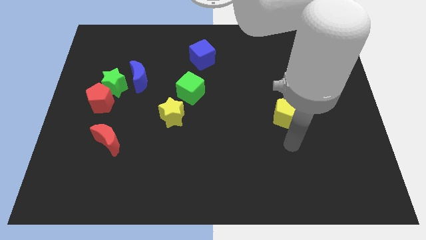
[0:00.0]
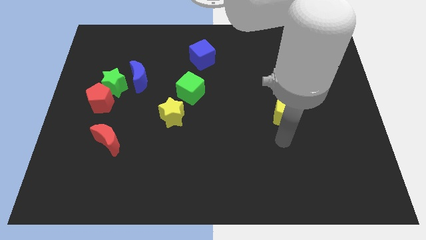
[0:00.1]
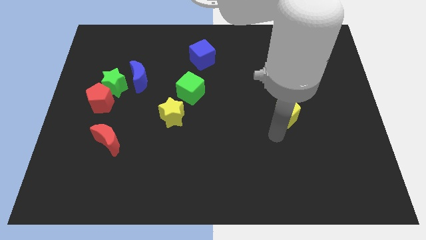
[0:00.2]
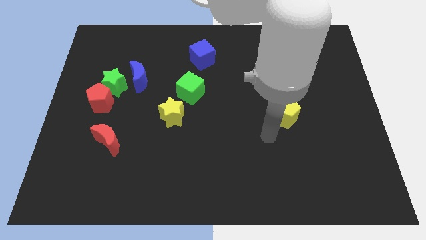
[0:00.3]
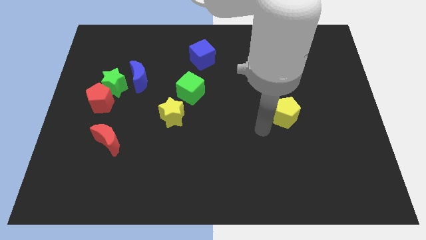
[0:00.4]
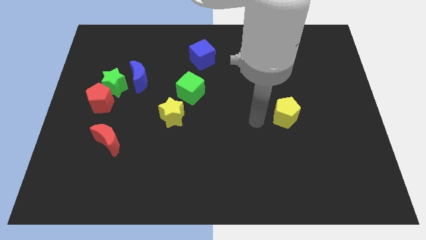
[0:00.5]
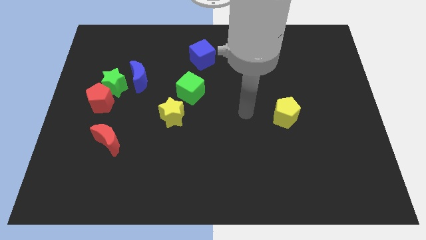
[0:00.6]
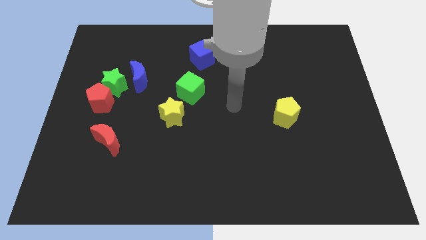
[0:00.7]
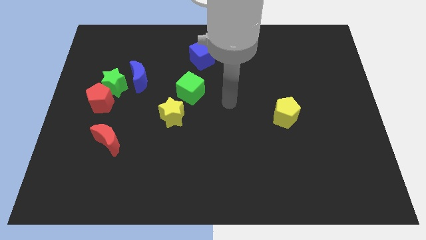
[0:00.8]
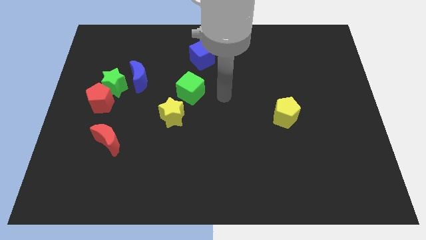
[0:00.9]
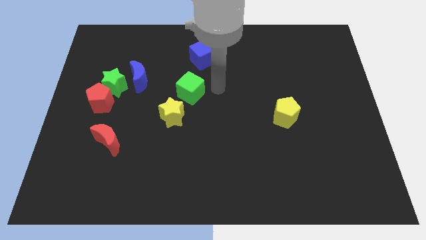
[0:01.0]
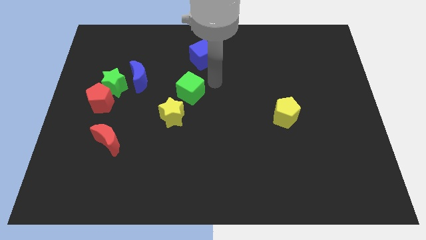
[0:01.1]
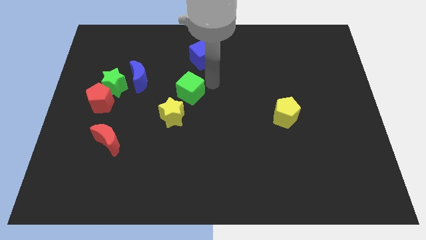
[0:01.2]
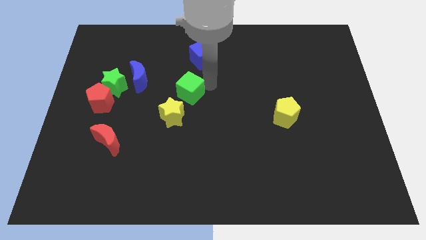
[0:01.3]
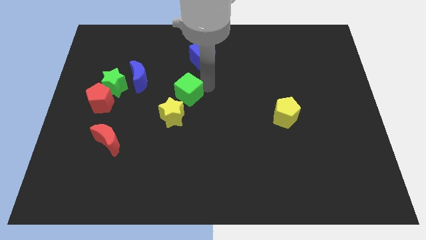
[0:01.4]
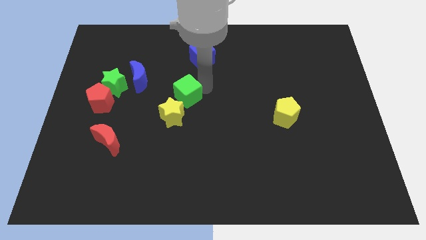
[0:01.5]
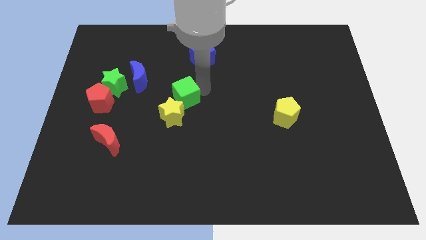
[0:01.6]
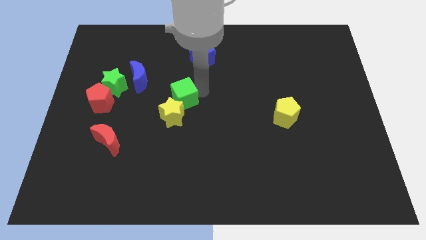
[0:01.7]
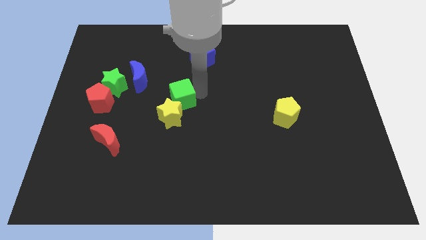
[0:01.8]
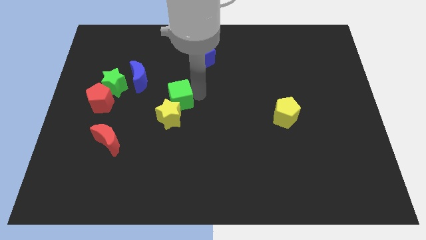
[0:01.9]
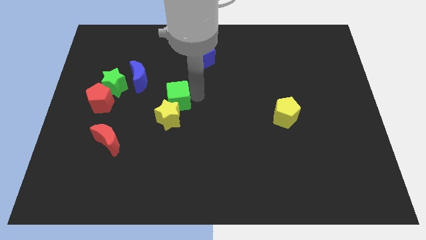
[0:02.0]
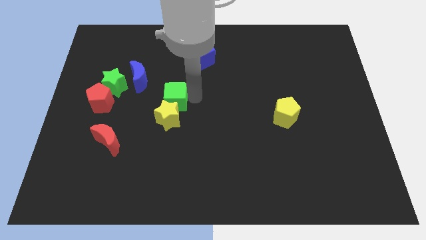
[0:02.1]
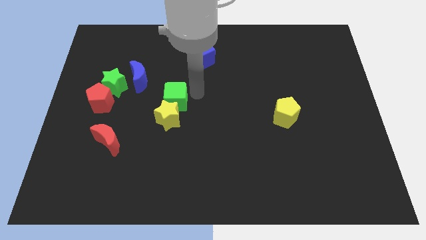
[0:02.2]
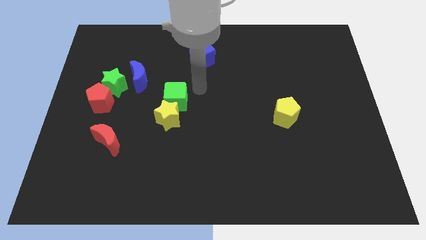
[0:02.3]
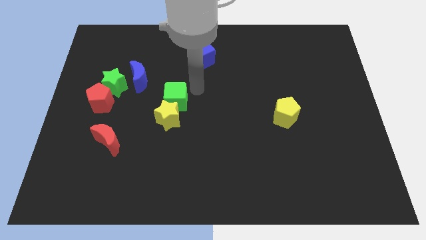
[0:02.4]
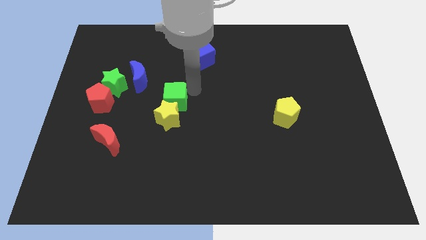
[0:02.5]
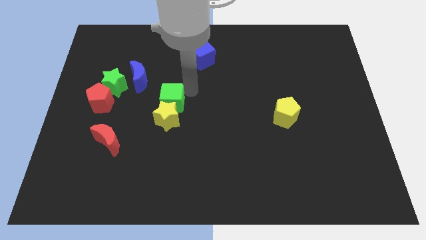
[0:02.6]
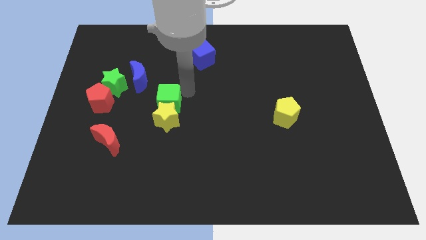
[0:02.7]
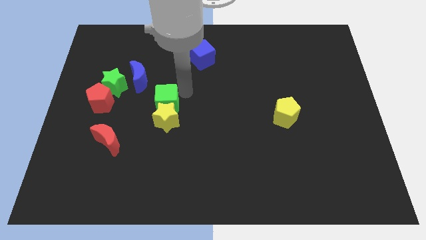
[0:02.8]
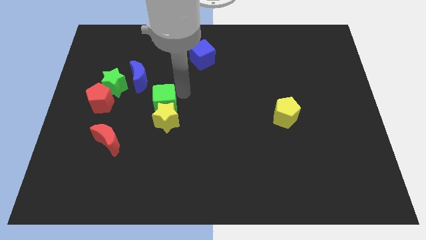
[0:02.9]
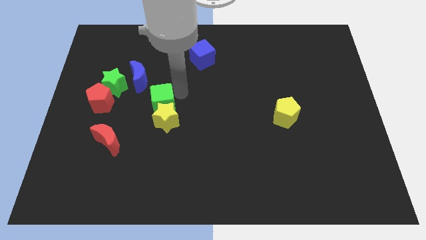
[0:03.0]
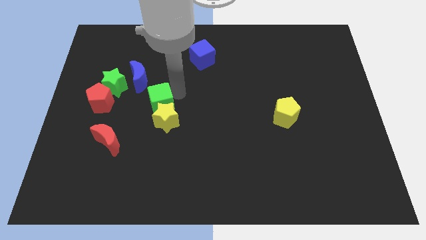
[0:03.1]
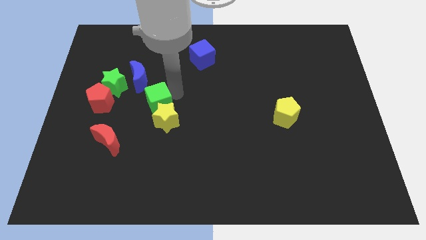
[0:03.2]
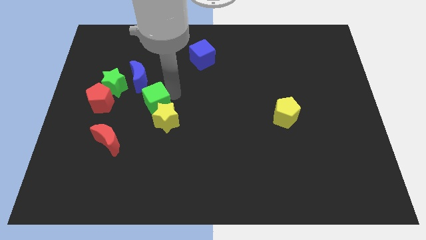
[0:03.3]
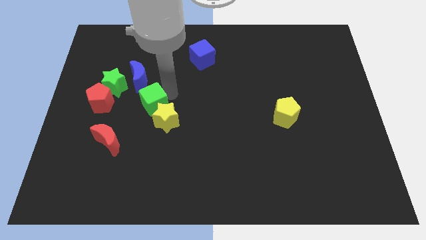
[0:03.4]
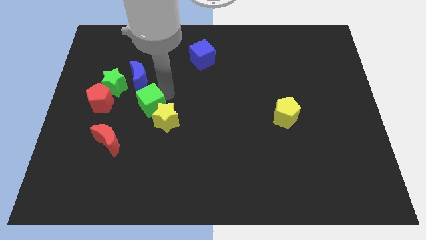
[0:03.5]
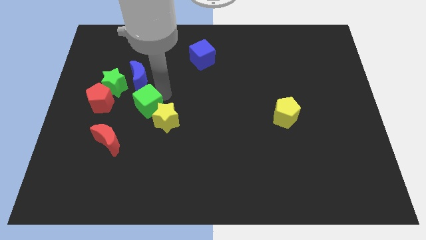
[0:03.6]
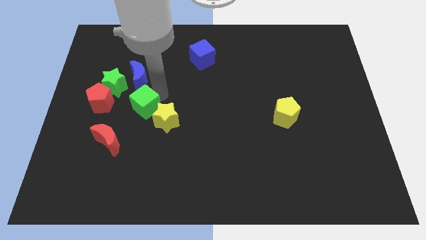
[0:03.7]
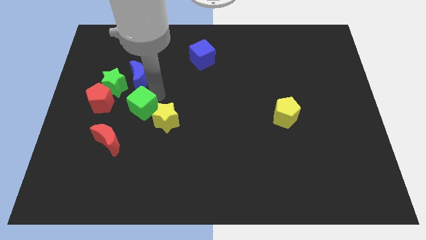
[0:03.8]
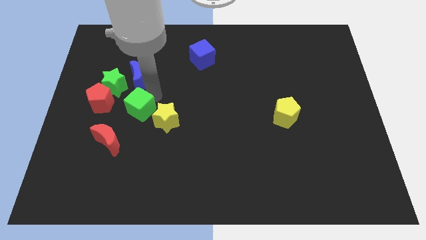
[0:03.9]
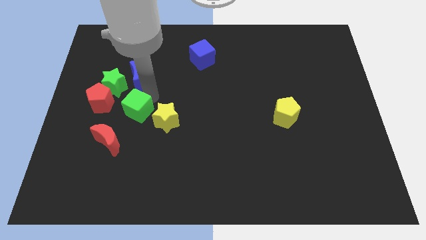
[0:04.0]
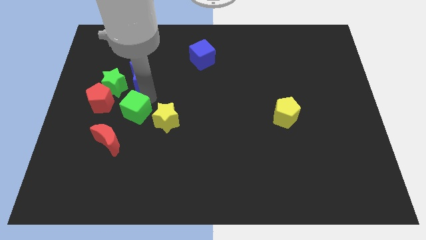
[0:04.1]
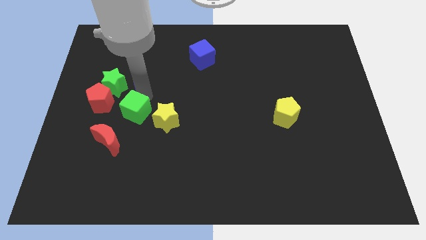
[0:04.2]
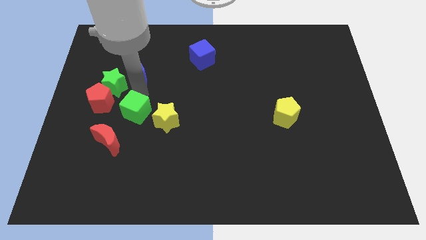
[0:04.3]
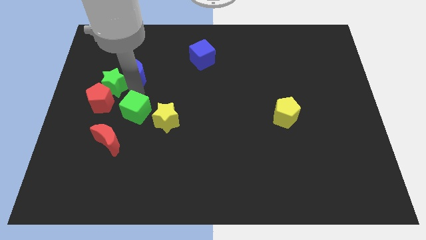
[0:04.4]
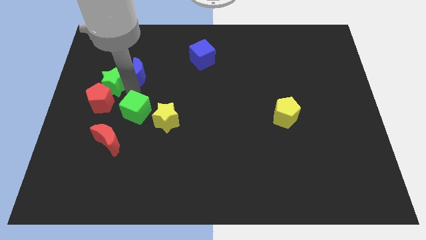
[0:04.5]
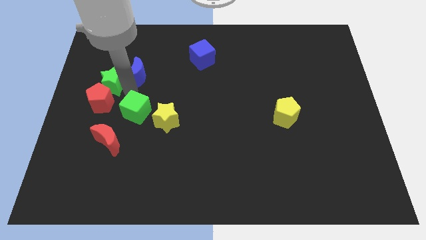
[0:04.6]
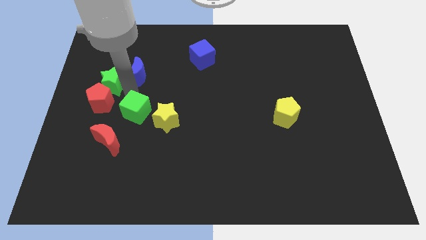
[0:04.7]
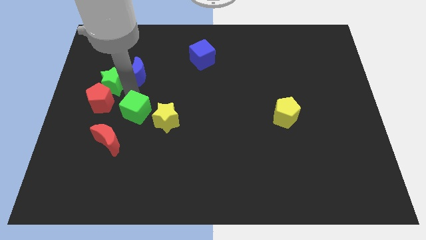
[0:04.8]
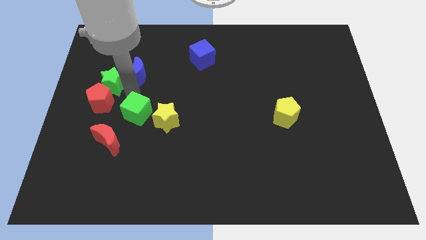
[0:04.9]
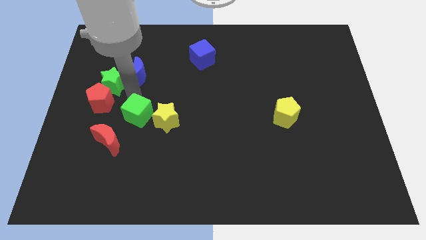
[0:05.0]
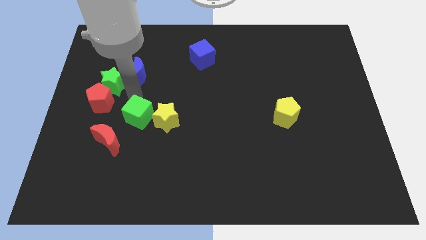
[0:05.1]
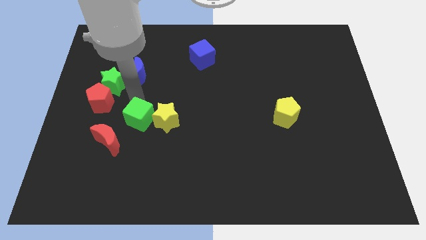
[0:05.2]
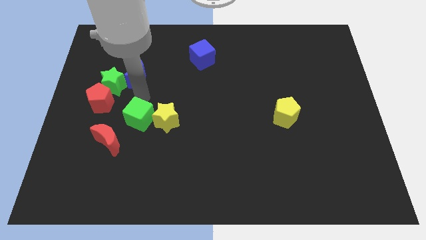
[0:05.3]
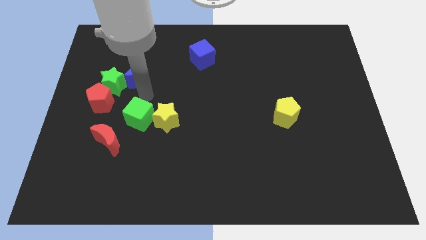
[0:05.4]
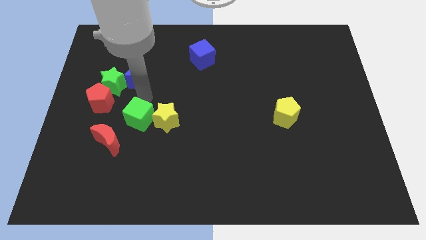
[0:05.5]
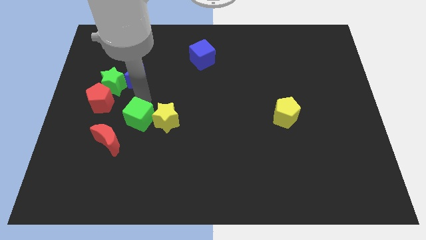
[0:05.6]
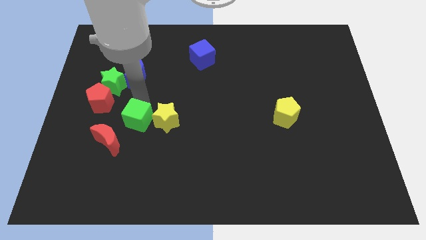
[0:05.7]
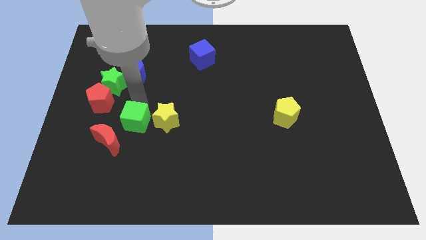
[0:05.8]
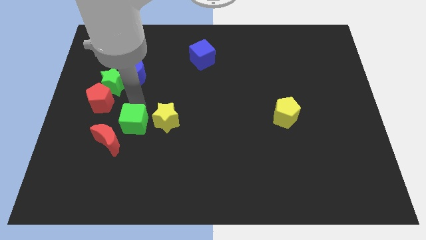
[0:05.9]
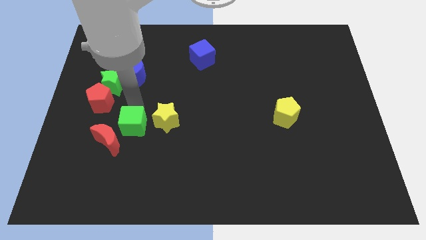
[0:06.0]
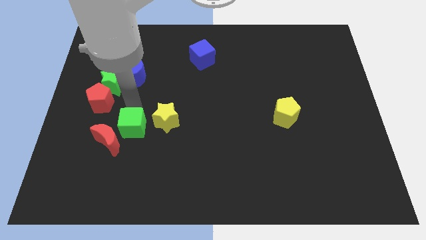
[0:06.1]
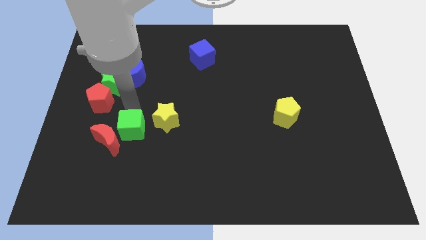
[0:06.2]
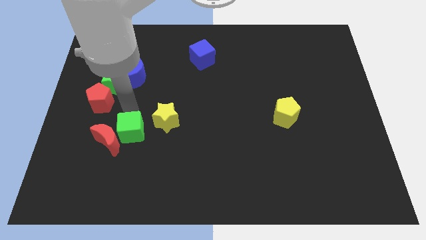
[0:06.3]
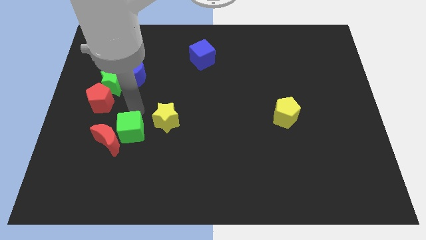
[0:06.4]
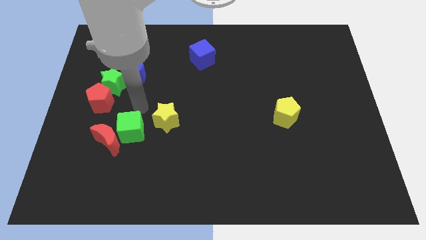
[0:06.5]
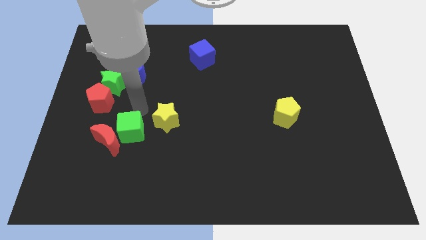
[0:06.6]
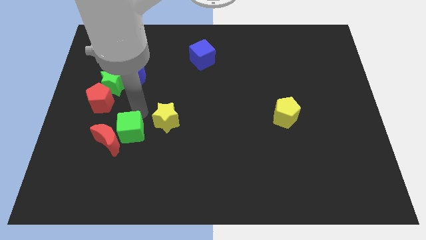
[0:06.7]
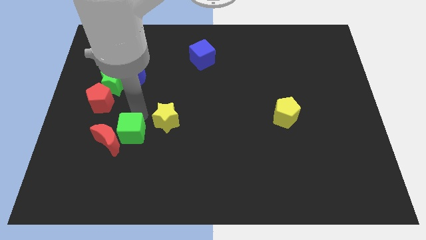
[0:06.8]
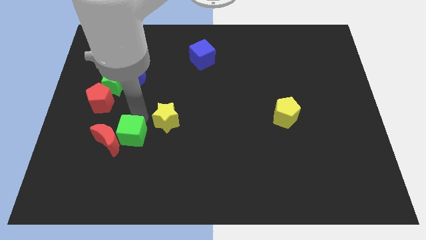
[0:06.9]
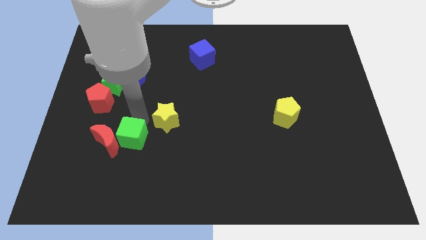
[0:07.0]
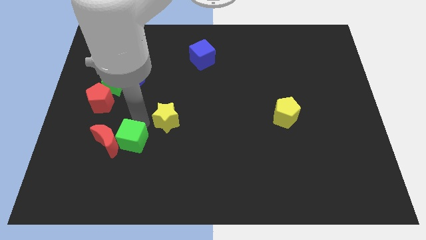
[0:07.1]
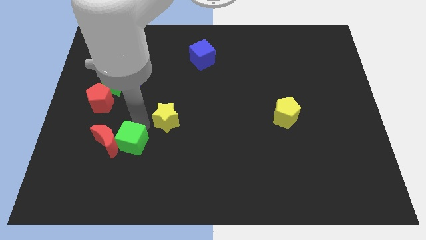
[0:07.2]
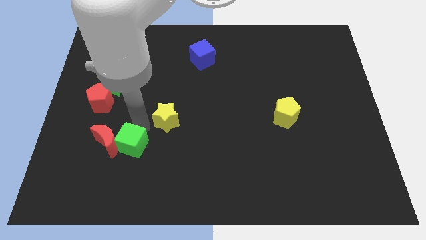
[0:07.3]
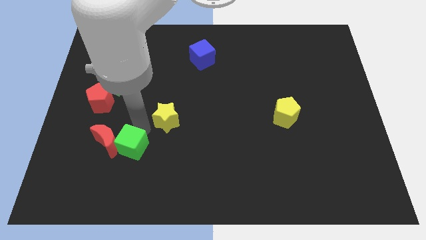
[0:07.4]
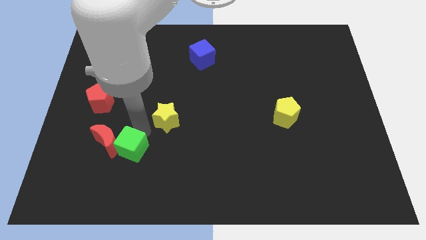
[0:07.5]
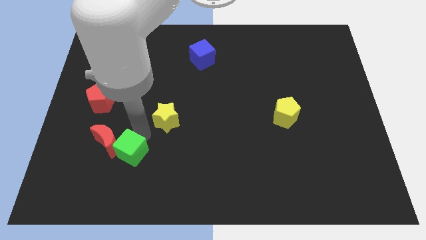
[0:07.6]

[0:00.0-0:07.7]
push the green cube down and left

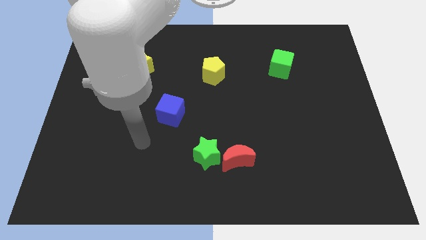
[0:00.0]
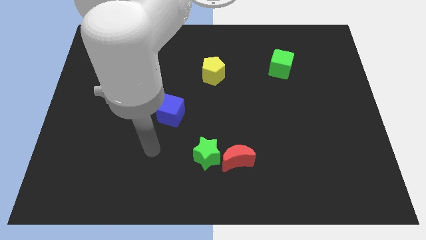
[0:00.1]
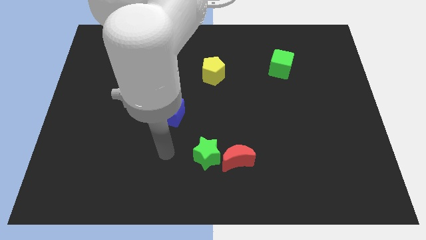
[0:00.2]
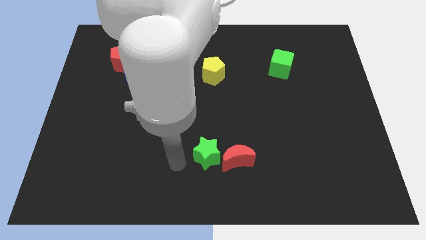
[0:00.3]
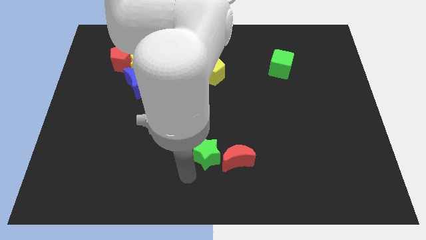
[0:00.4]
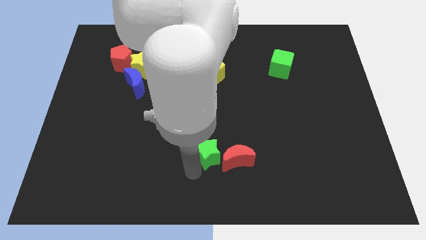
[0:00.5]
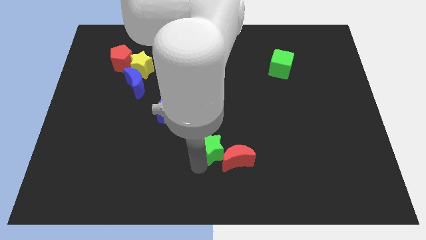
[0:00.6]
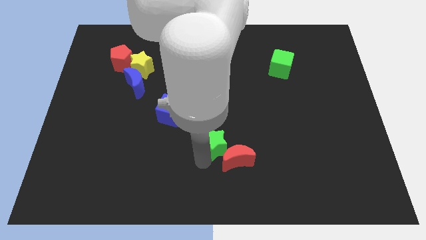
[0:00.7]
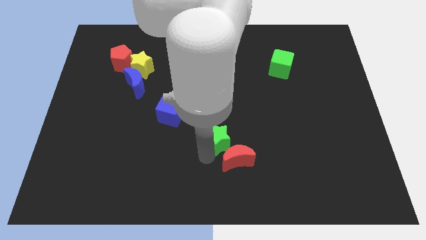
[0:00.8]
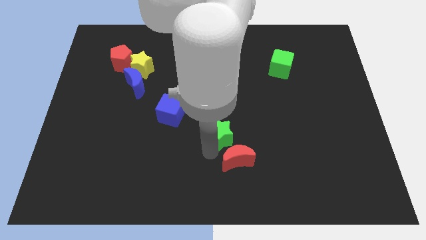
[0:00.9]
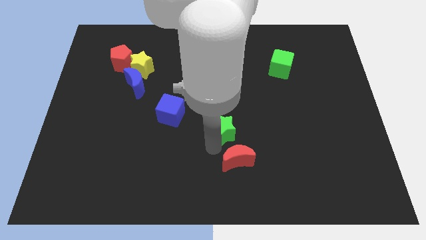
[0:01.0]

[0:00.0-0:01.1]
move the green star up and to the right a little
